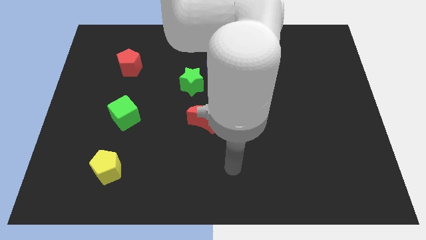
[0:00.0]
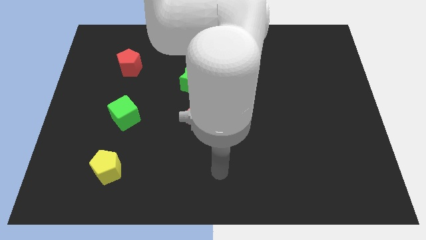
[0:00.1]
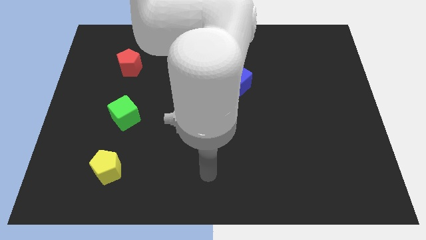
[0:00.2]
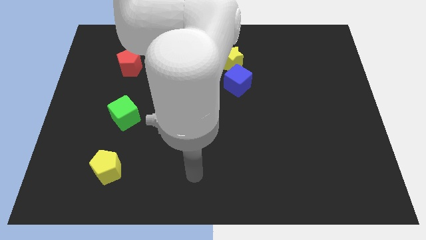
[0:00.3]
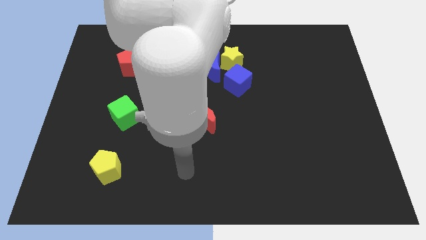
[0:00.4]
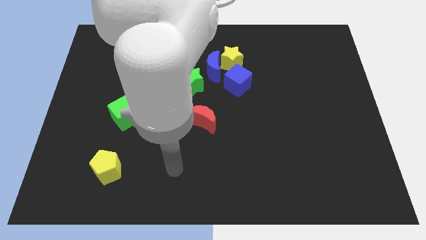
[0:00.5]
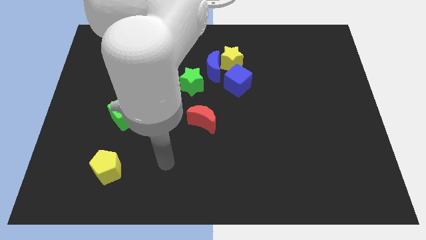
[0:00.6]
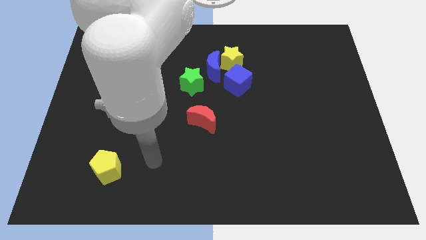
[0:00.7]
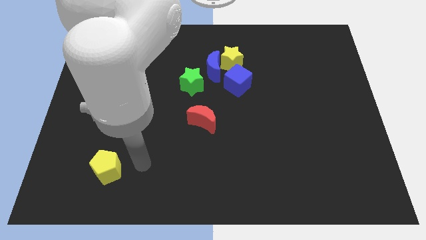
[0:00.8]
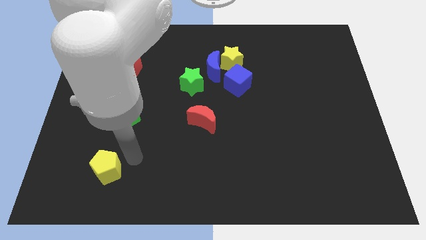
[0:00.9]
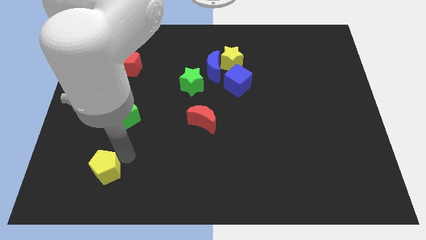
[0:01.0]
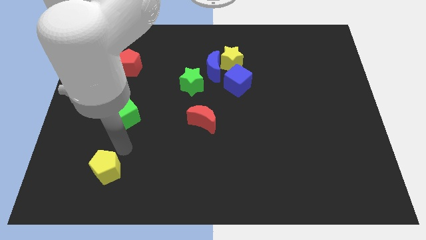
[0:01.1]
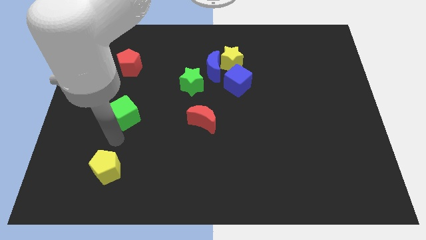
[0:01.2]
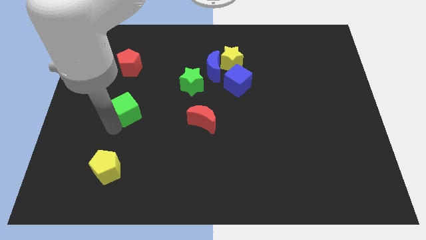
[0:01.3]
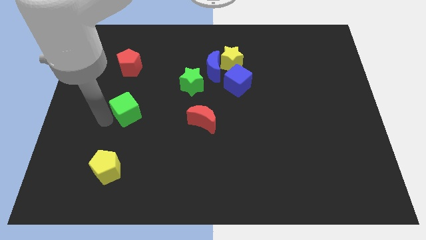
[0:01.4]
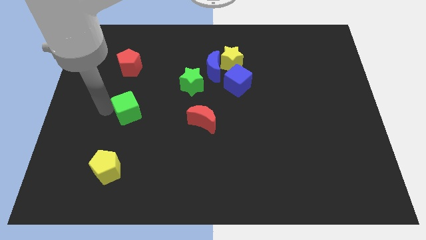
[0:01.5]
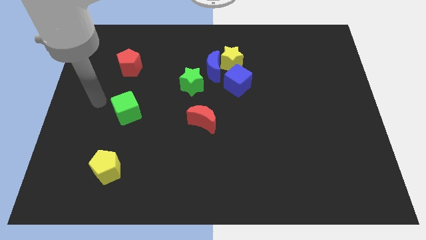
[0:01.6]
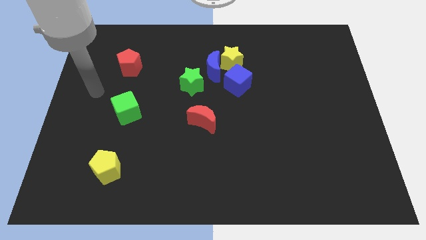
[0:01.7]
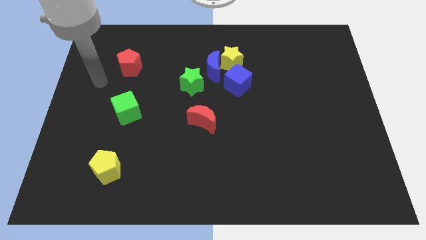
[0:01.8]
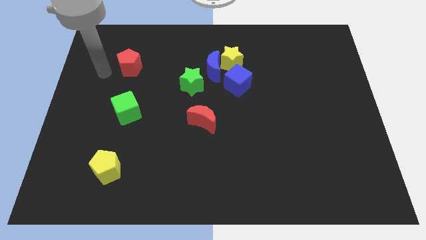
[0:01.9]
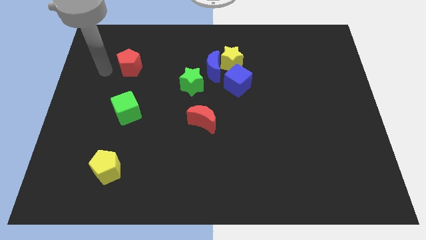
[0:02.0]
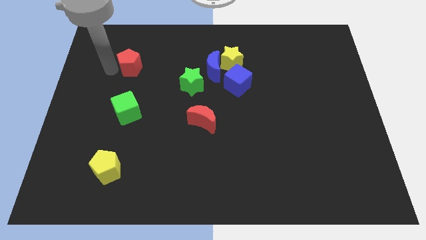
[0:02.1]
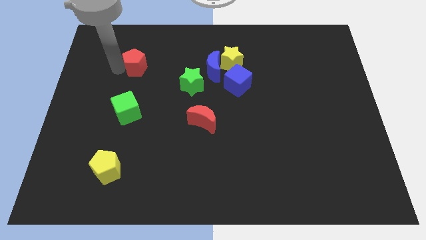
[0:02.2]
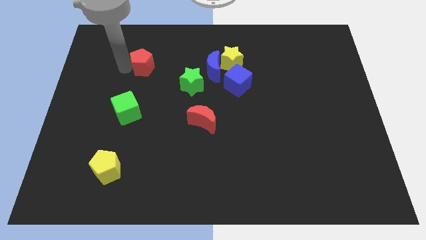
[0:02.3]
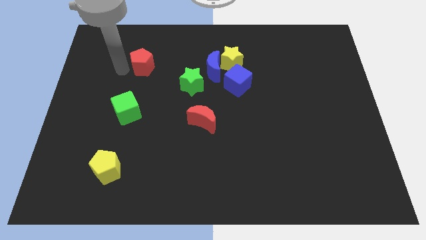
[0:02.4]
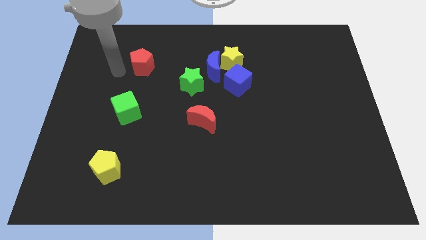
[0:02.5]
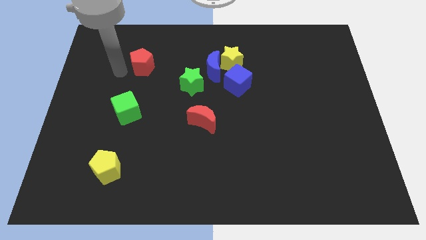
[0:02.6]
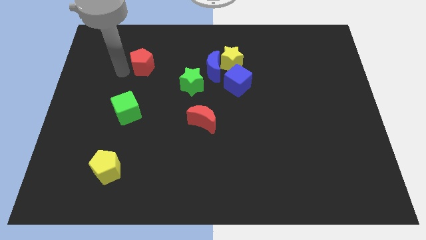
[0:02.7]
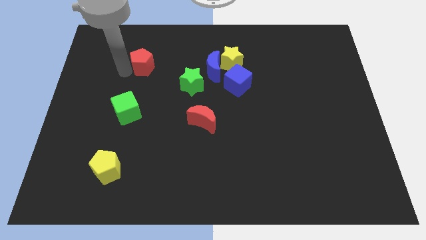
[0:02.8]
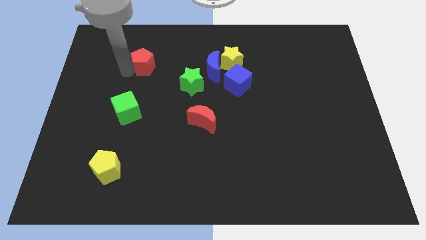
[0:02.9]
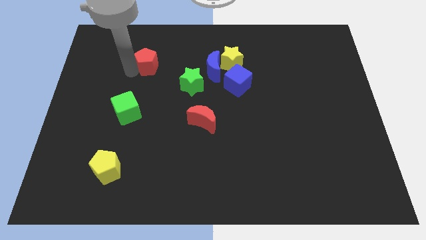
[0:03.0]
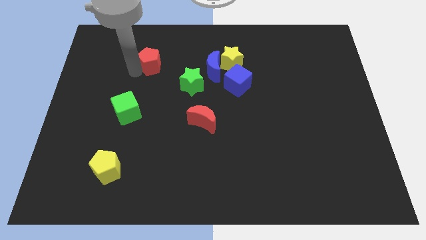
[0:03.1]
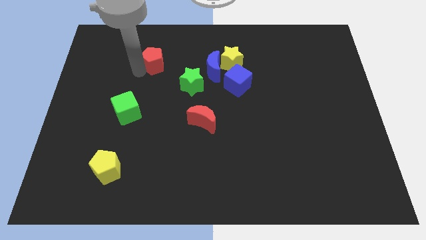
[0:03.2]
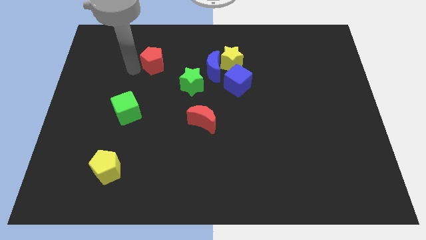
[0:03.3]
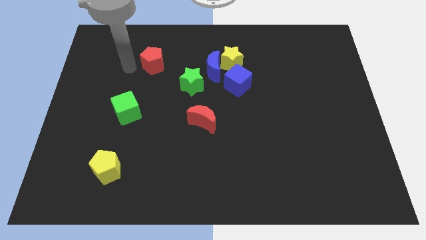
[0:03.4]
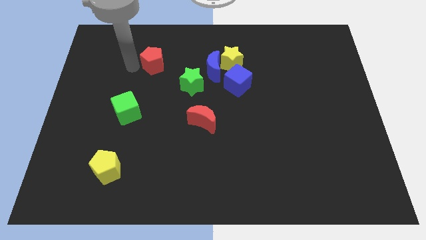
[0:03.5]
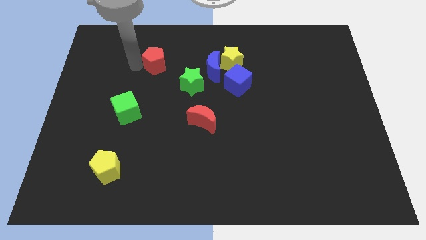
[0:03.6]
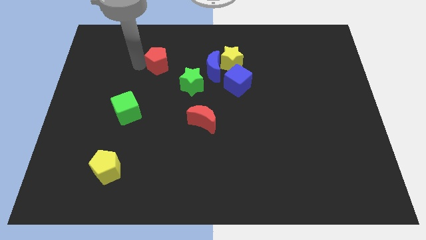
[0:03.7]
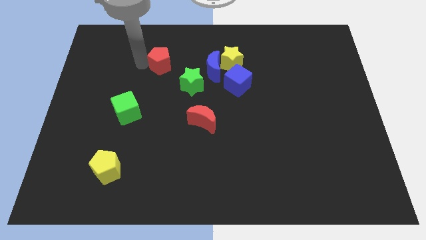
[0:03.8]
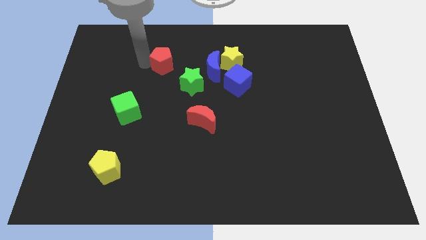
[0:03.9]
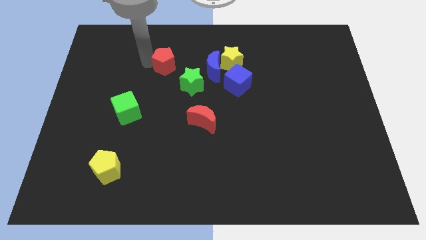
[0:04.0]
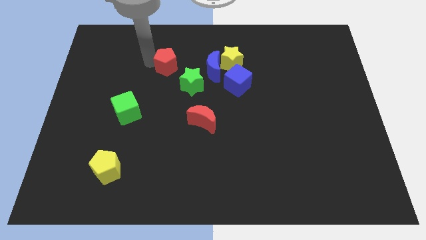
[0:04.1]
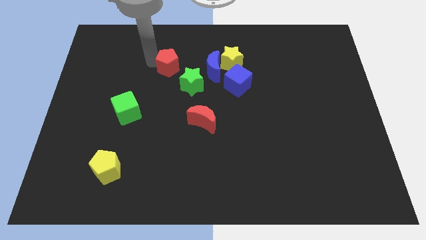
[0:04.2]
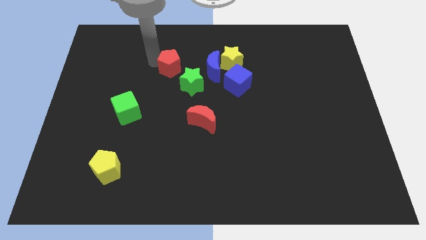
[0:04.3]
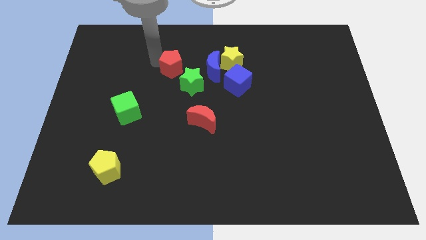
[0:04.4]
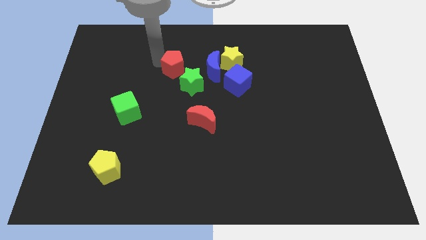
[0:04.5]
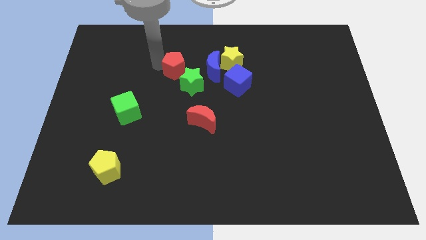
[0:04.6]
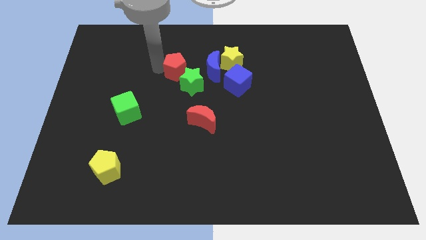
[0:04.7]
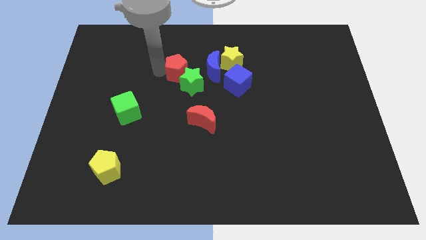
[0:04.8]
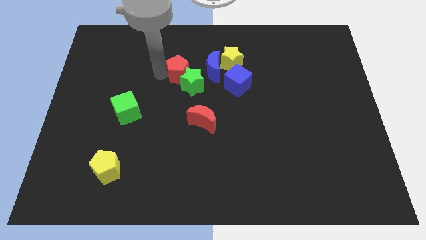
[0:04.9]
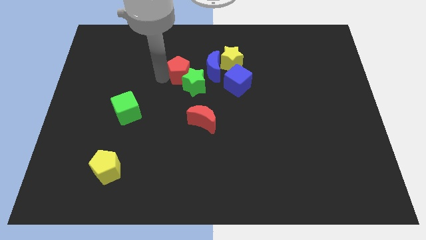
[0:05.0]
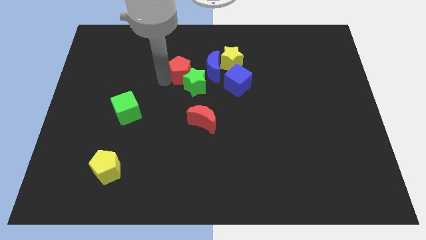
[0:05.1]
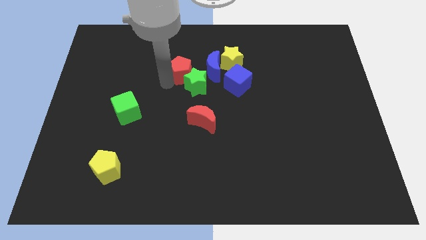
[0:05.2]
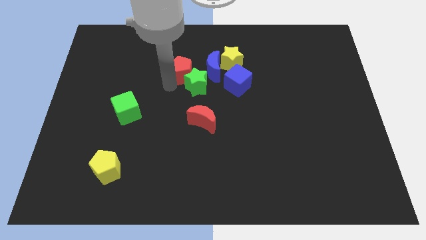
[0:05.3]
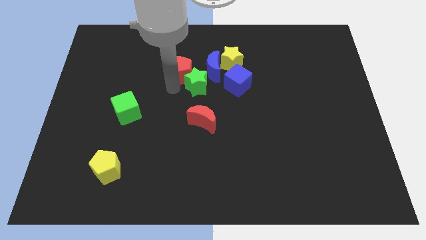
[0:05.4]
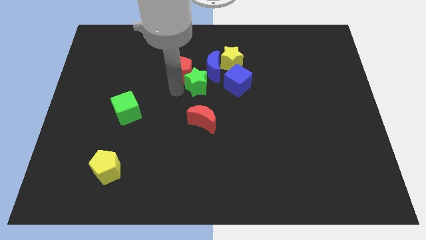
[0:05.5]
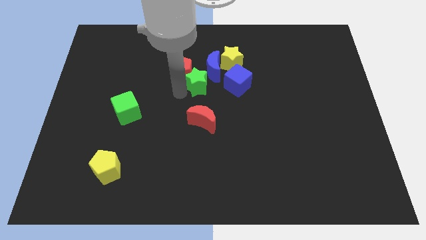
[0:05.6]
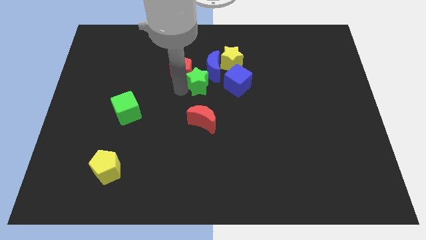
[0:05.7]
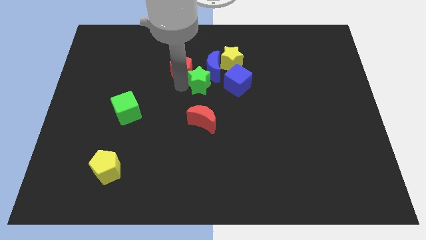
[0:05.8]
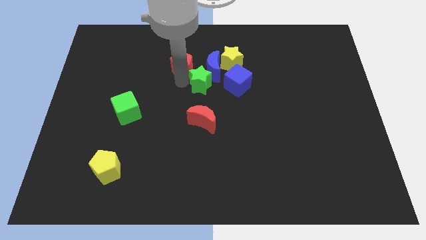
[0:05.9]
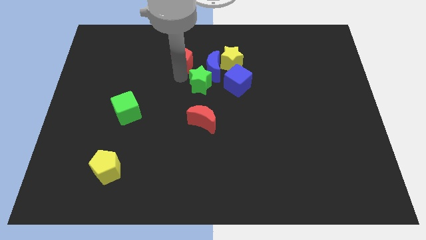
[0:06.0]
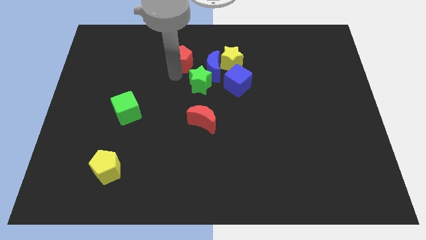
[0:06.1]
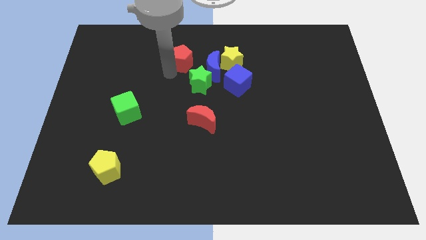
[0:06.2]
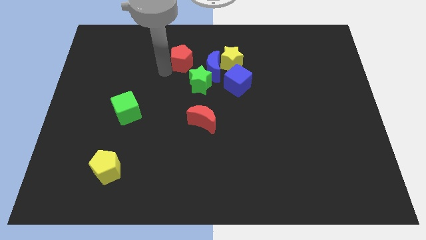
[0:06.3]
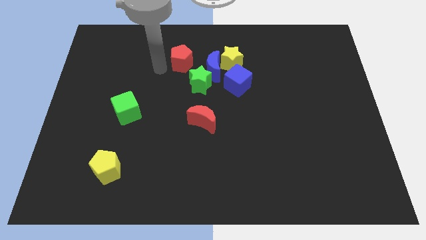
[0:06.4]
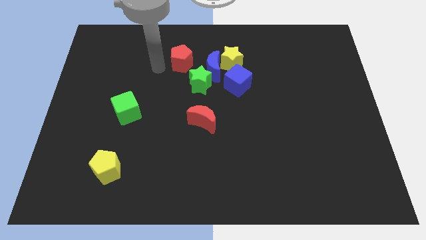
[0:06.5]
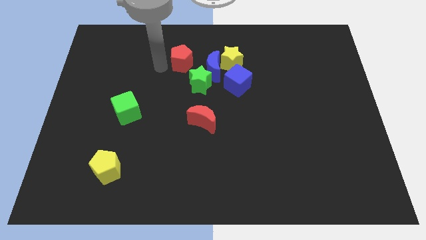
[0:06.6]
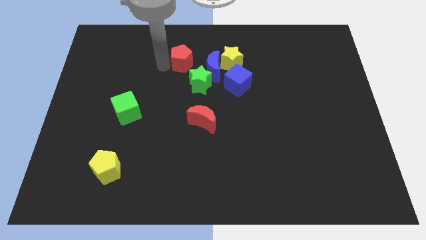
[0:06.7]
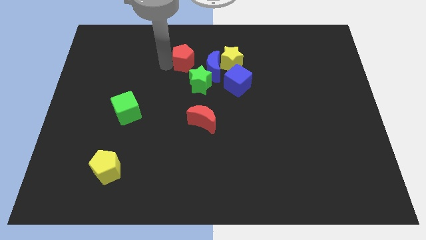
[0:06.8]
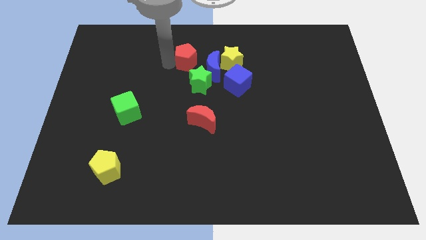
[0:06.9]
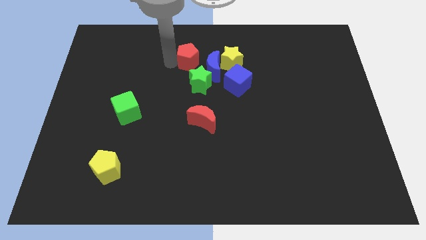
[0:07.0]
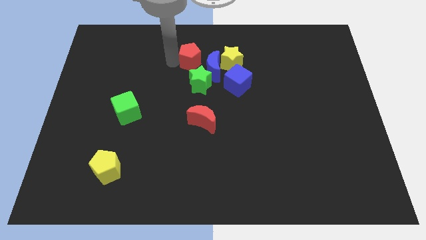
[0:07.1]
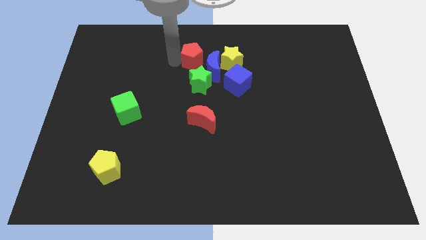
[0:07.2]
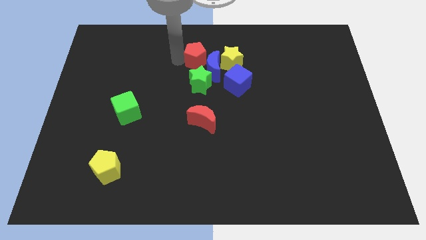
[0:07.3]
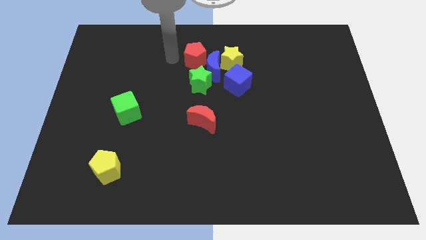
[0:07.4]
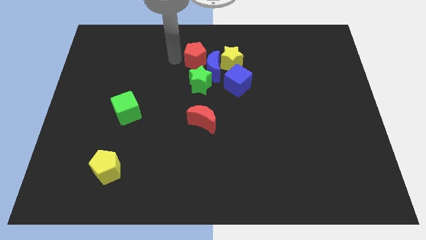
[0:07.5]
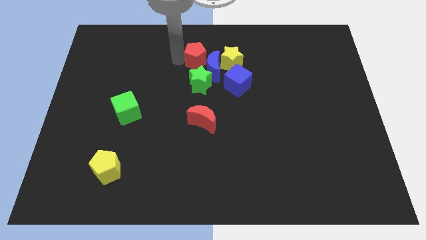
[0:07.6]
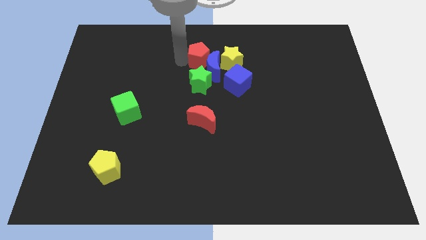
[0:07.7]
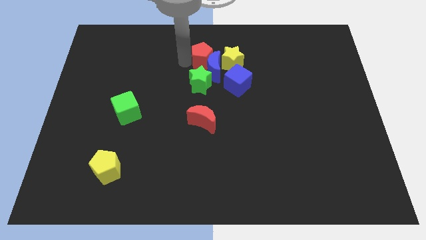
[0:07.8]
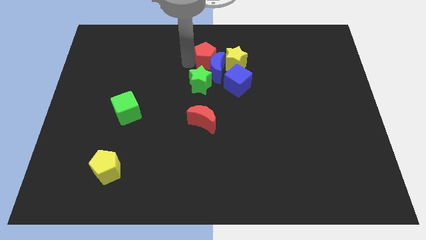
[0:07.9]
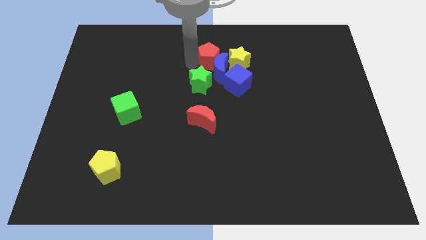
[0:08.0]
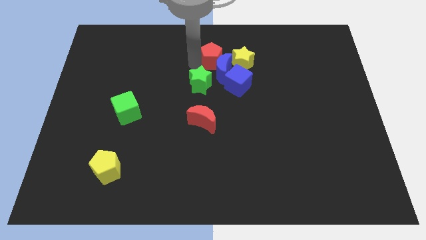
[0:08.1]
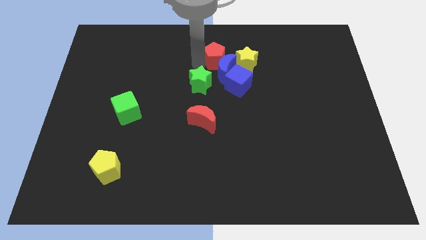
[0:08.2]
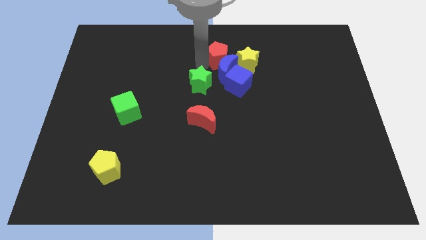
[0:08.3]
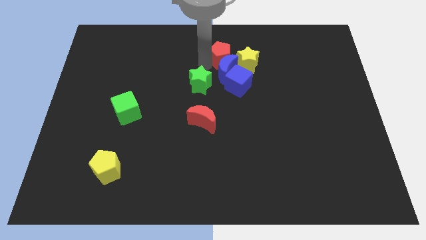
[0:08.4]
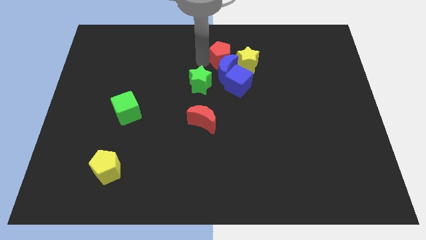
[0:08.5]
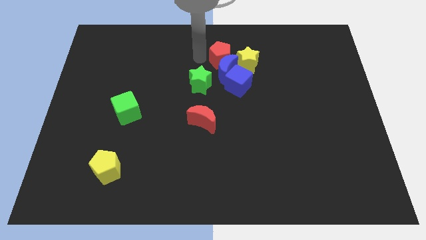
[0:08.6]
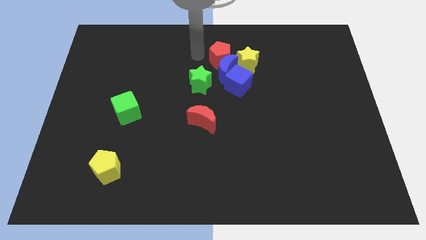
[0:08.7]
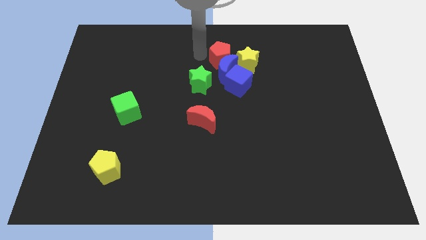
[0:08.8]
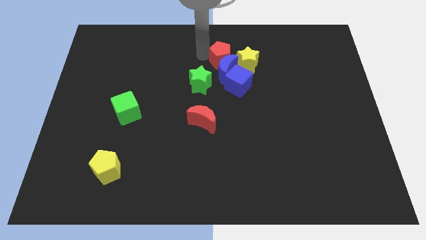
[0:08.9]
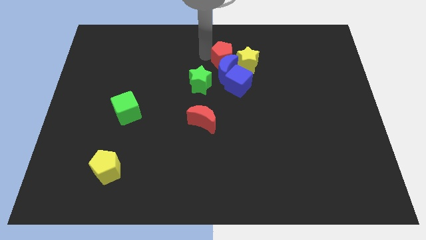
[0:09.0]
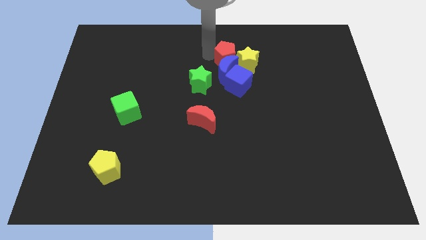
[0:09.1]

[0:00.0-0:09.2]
slide the red pentagon next to the yellow star
